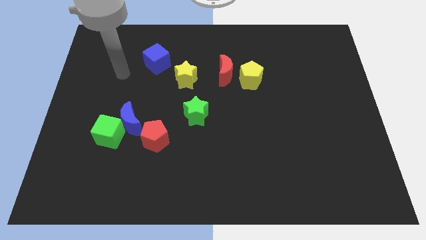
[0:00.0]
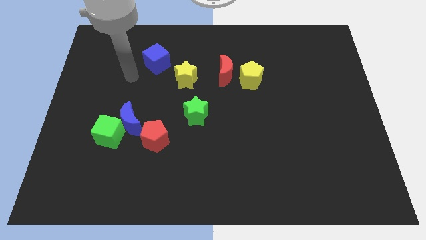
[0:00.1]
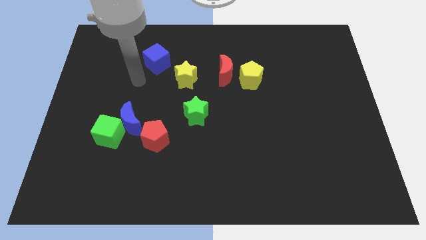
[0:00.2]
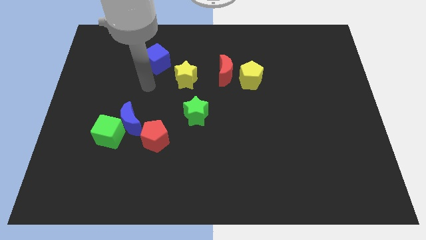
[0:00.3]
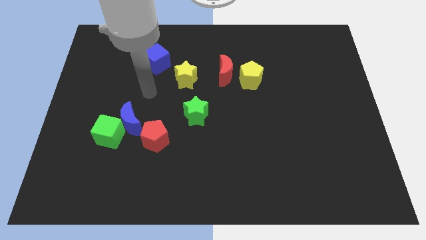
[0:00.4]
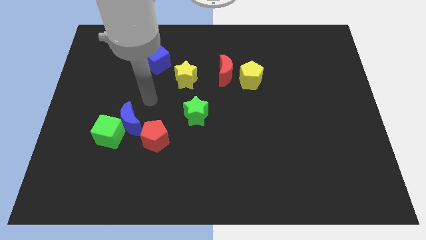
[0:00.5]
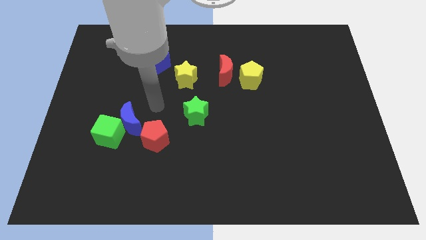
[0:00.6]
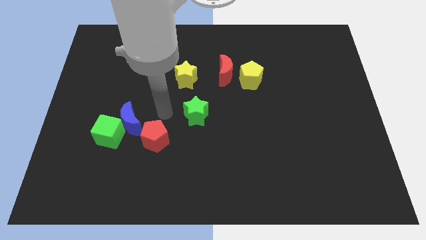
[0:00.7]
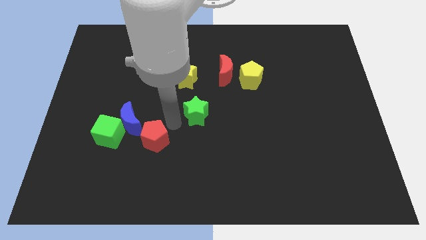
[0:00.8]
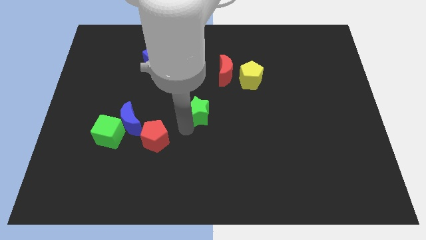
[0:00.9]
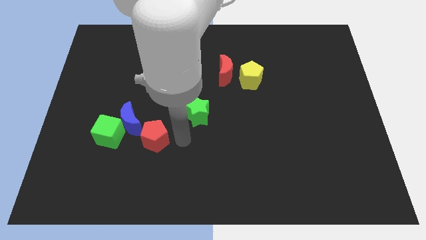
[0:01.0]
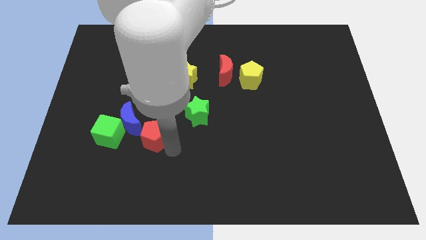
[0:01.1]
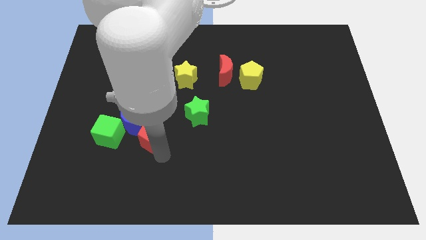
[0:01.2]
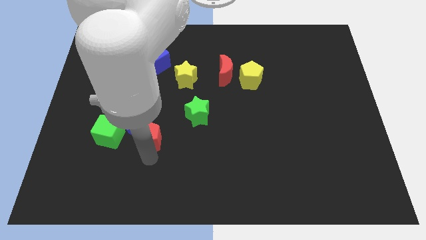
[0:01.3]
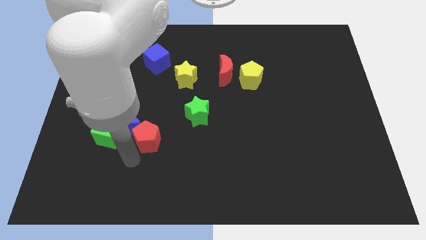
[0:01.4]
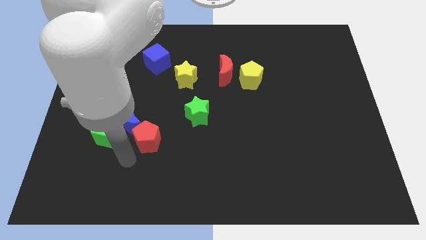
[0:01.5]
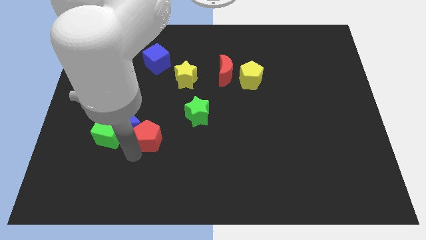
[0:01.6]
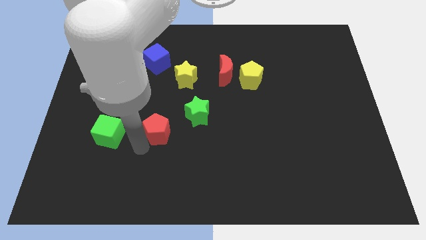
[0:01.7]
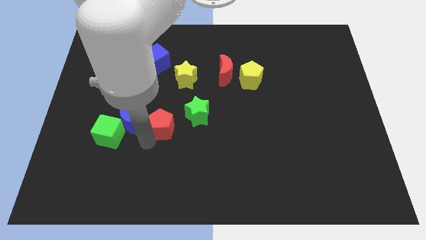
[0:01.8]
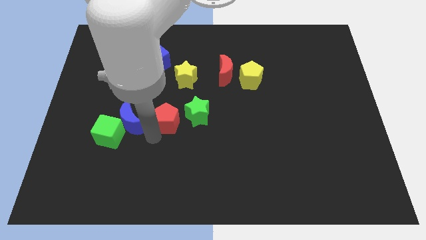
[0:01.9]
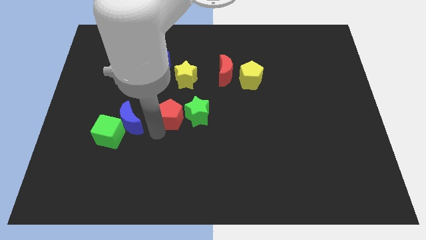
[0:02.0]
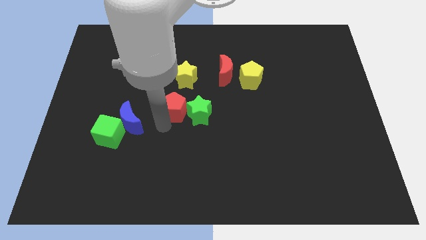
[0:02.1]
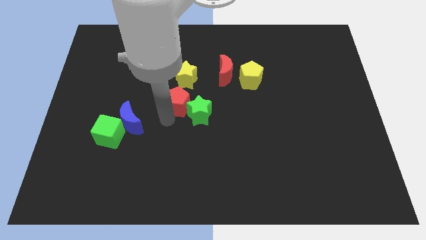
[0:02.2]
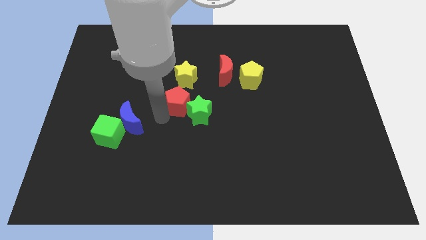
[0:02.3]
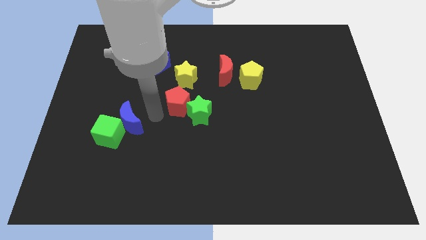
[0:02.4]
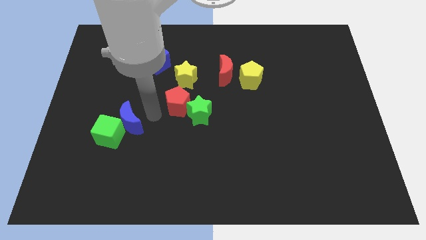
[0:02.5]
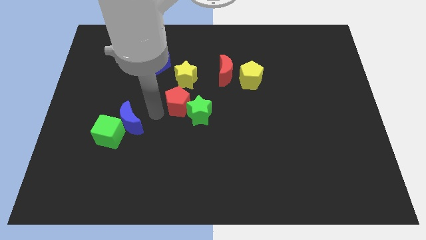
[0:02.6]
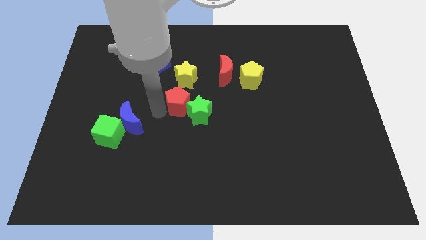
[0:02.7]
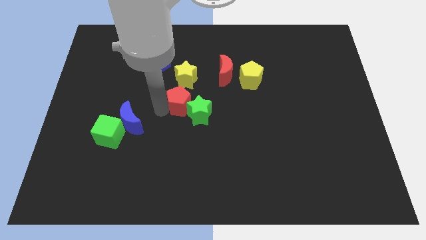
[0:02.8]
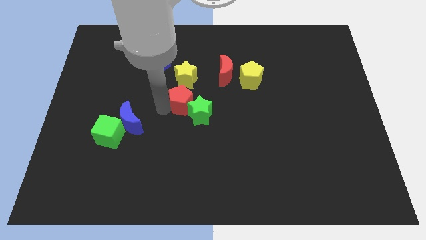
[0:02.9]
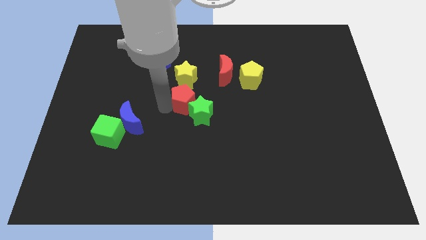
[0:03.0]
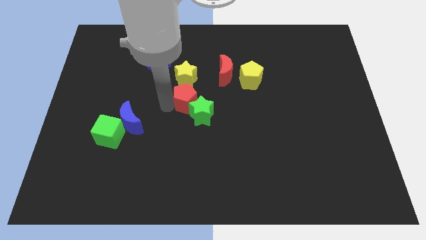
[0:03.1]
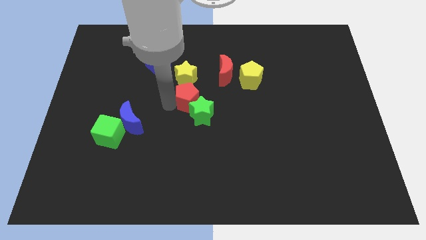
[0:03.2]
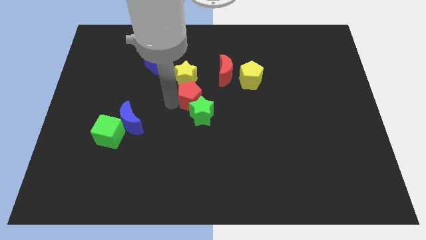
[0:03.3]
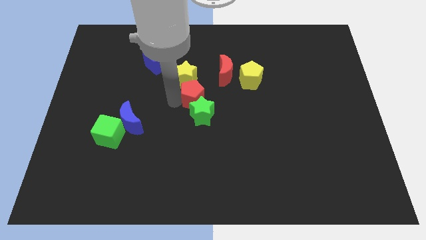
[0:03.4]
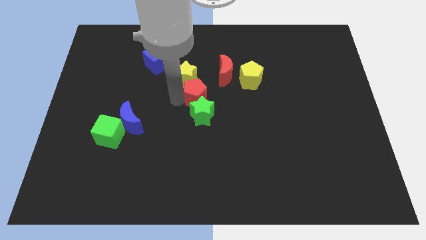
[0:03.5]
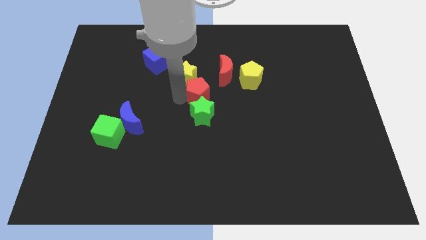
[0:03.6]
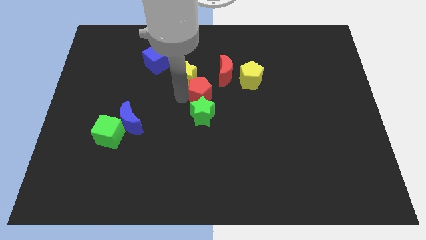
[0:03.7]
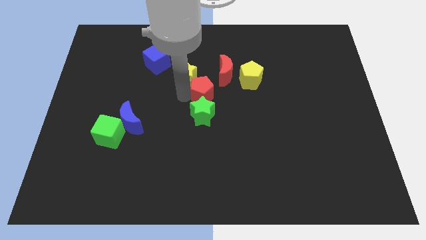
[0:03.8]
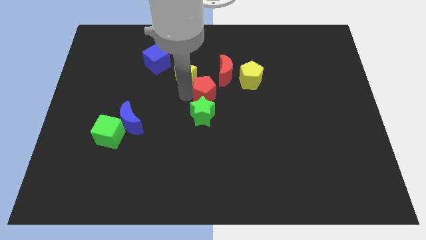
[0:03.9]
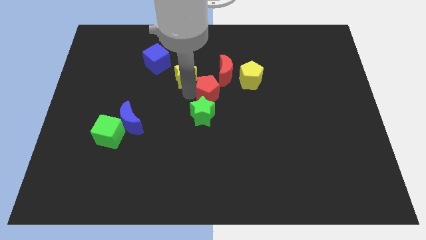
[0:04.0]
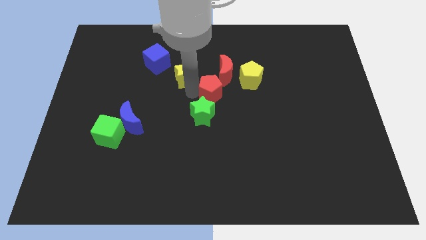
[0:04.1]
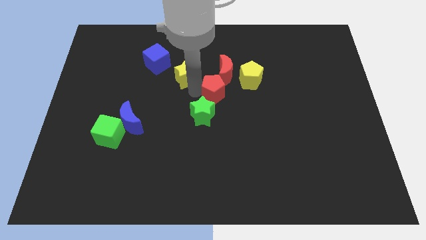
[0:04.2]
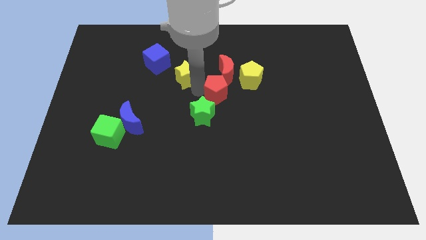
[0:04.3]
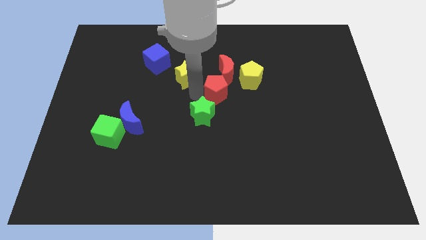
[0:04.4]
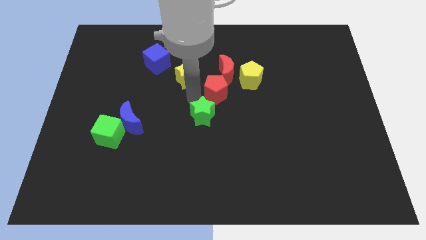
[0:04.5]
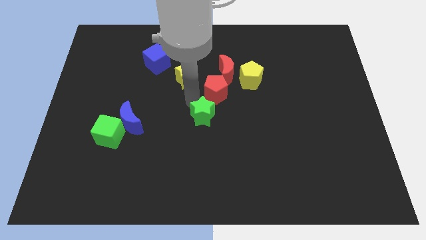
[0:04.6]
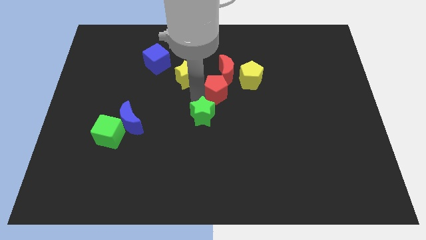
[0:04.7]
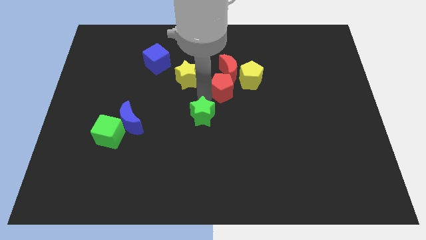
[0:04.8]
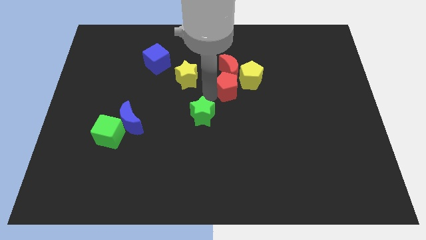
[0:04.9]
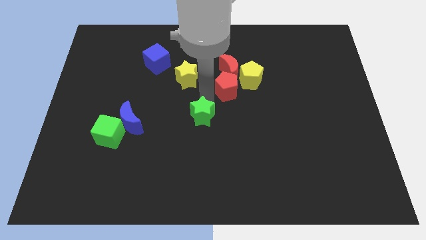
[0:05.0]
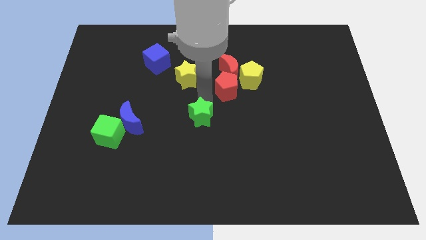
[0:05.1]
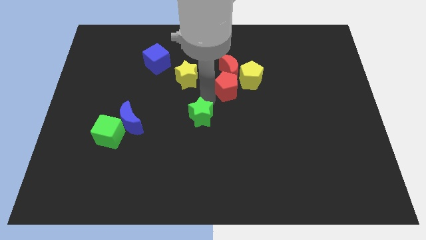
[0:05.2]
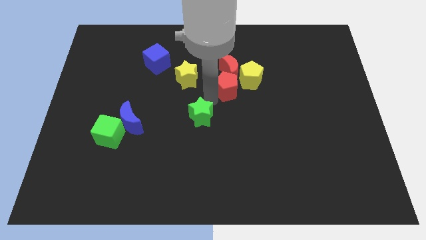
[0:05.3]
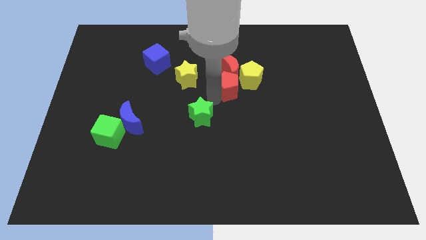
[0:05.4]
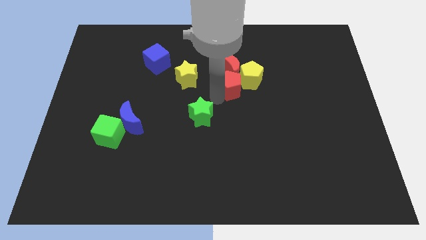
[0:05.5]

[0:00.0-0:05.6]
push the red pentagon towards the yellow pentagon

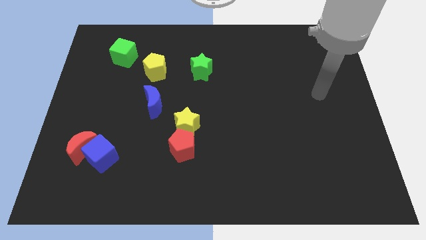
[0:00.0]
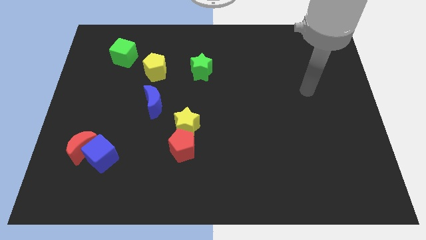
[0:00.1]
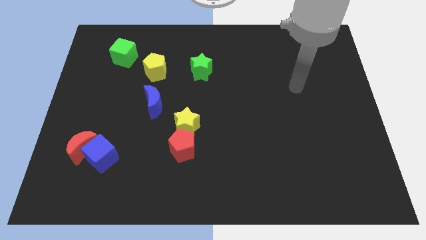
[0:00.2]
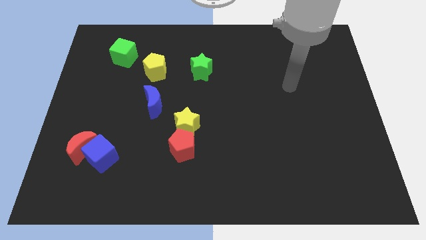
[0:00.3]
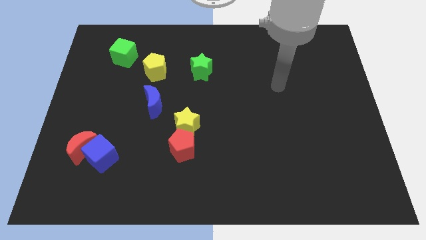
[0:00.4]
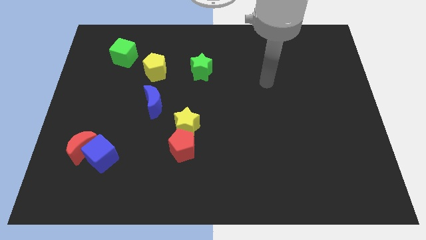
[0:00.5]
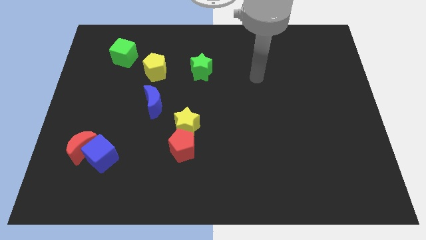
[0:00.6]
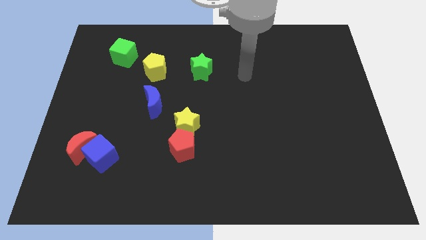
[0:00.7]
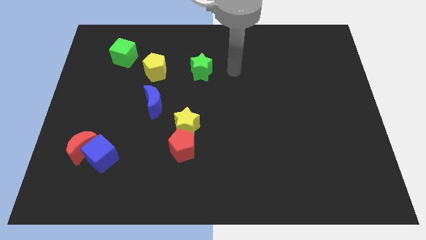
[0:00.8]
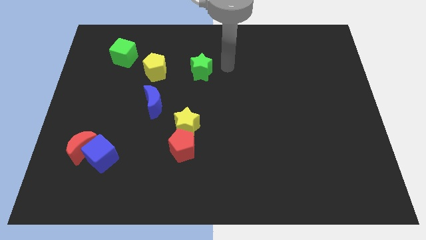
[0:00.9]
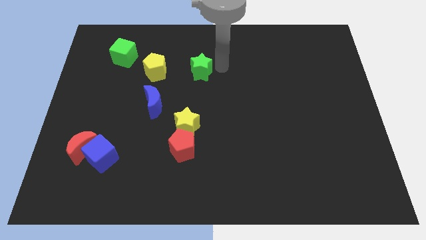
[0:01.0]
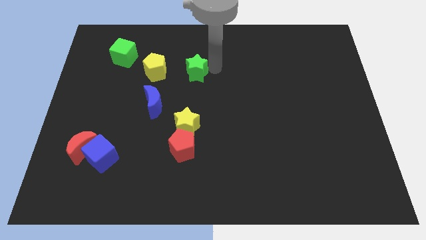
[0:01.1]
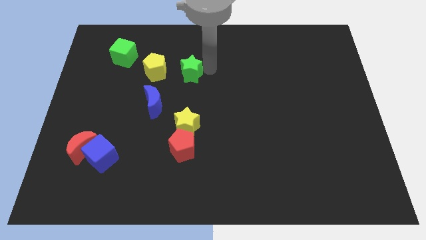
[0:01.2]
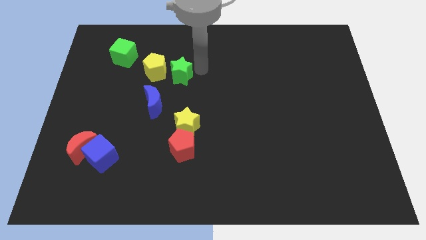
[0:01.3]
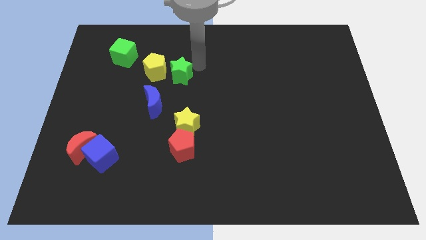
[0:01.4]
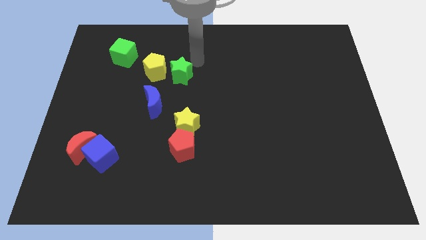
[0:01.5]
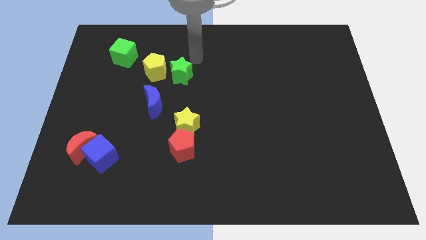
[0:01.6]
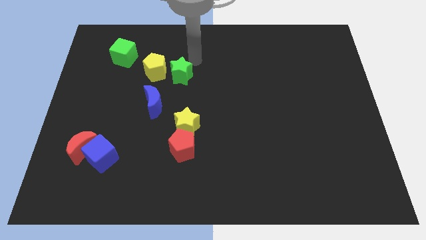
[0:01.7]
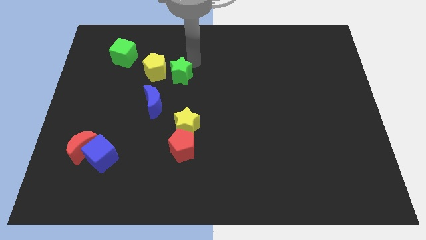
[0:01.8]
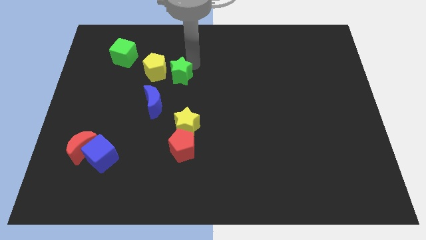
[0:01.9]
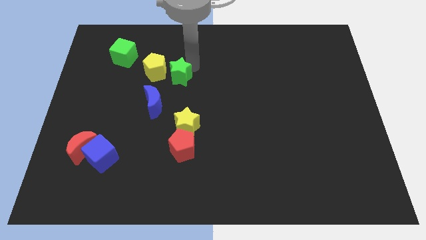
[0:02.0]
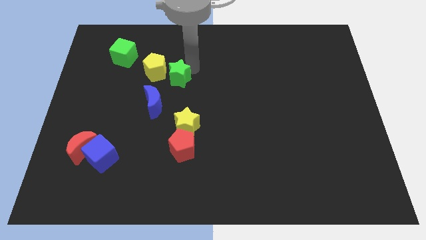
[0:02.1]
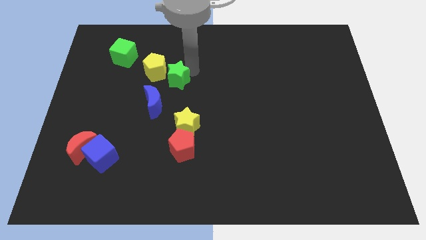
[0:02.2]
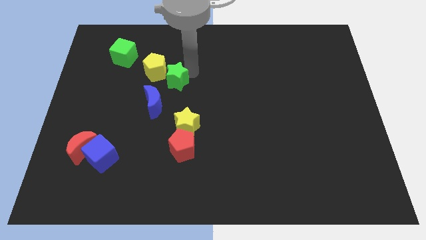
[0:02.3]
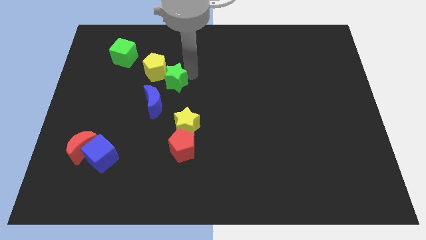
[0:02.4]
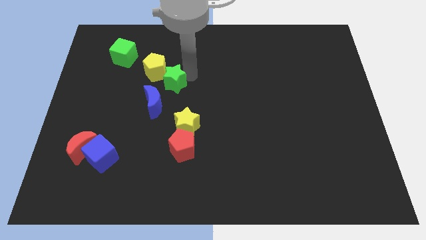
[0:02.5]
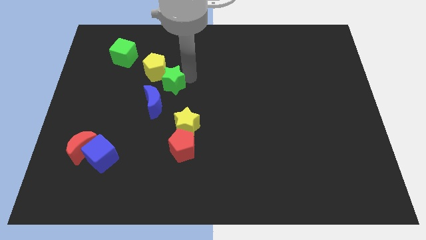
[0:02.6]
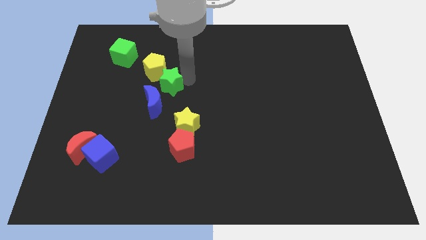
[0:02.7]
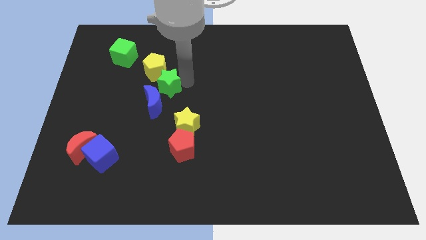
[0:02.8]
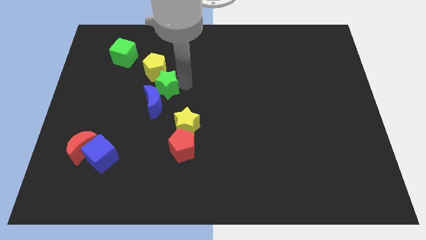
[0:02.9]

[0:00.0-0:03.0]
move the green star close to the blue moon
